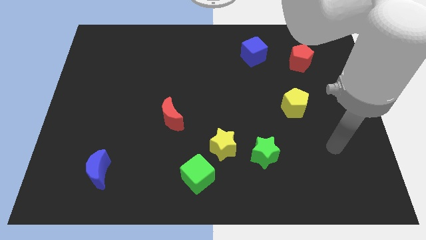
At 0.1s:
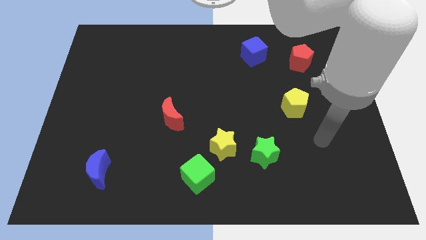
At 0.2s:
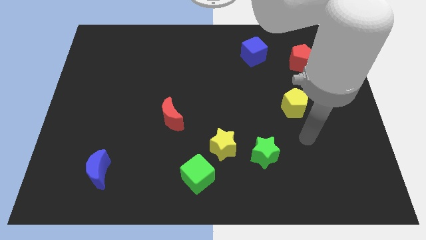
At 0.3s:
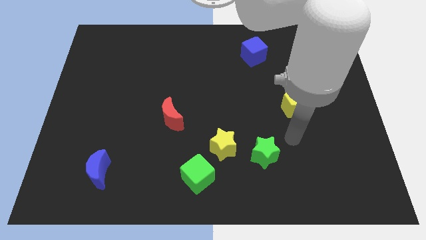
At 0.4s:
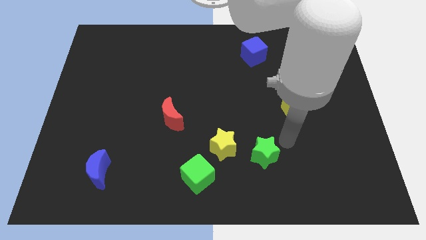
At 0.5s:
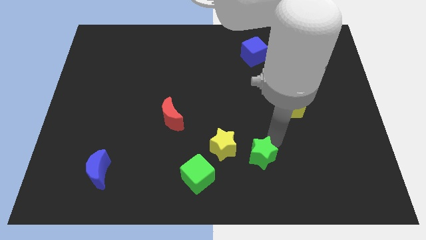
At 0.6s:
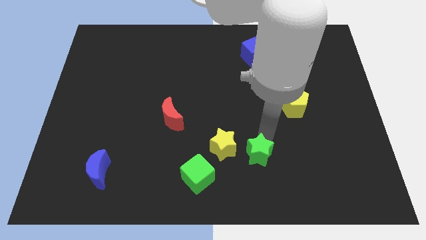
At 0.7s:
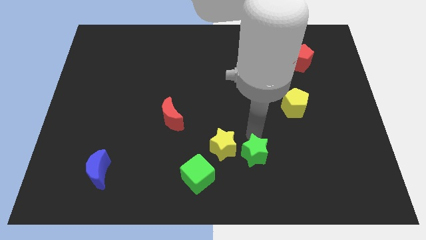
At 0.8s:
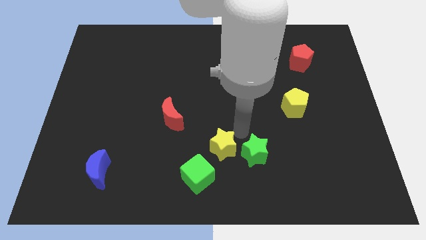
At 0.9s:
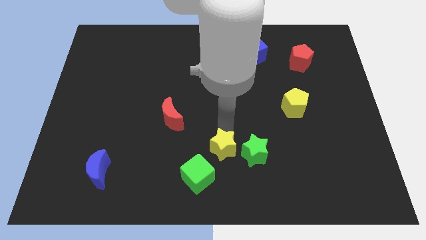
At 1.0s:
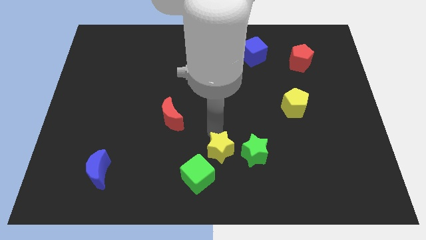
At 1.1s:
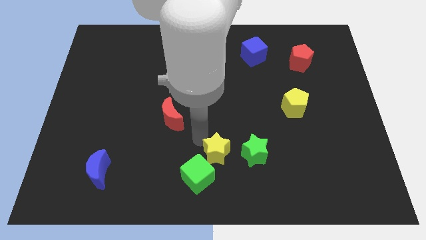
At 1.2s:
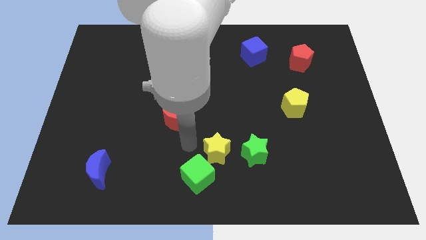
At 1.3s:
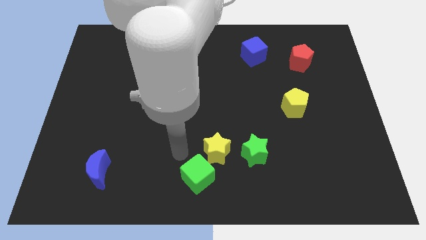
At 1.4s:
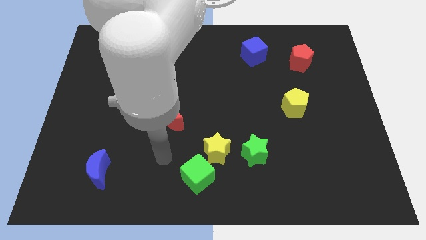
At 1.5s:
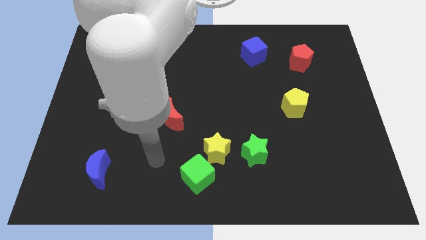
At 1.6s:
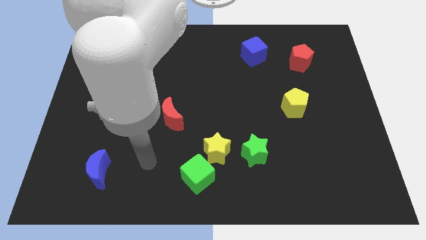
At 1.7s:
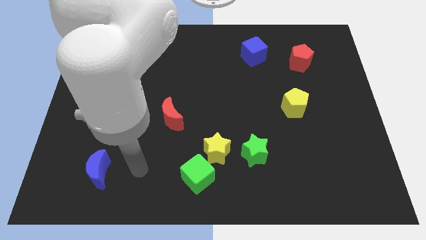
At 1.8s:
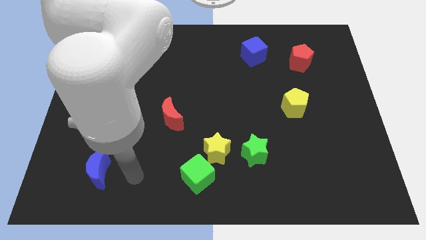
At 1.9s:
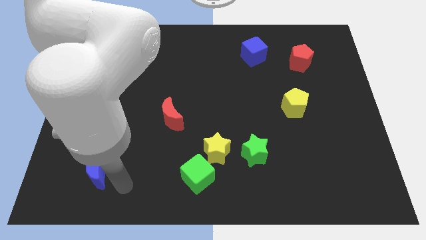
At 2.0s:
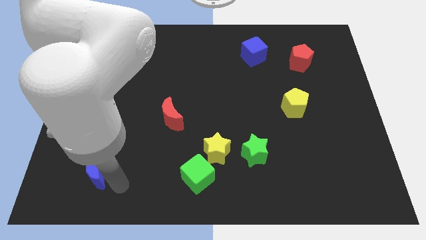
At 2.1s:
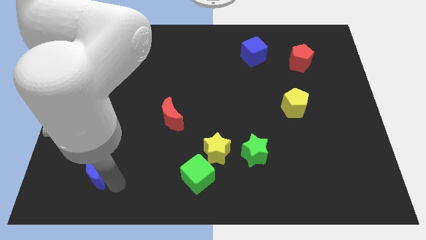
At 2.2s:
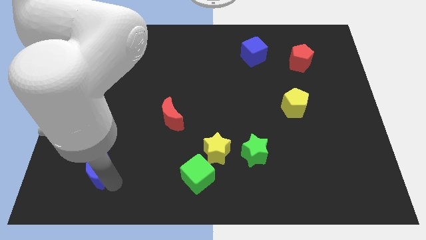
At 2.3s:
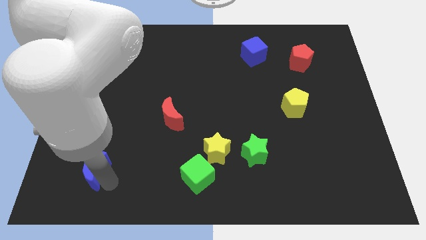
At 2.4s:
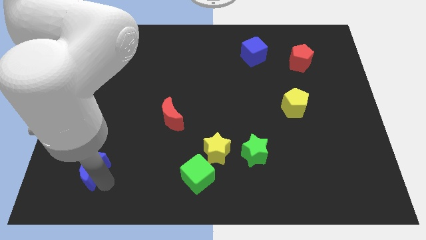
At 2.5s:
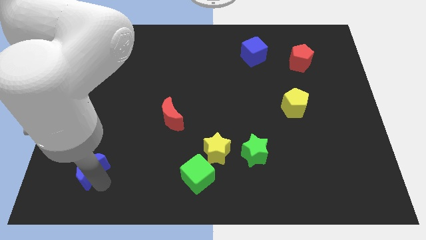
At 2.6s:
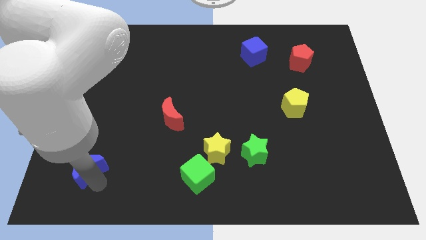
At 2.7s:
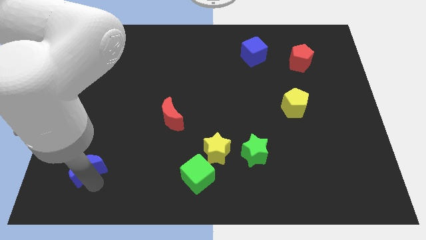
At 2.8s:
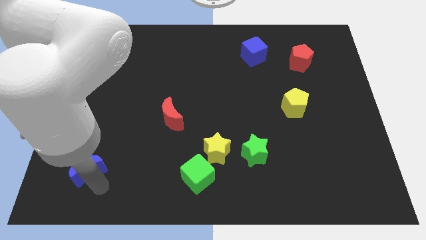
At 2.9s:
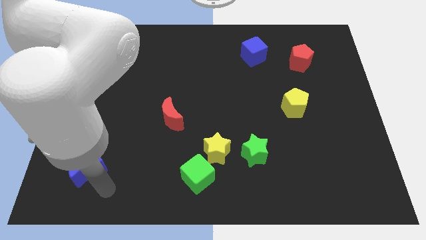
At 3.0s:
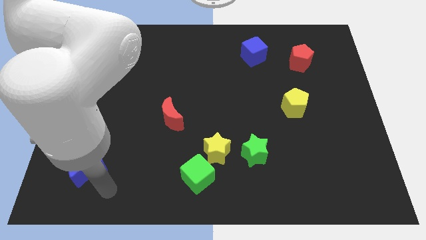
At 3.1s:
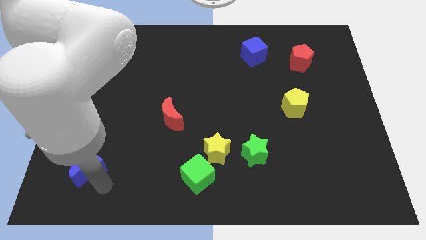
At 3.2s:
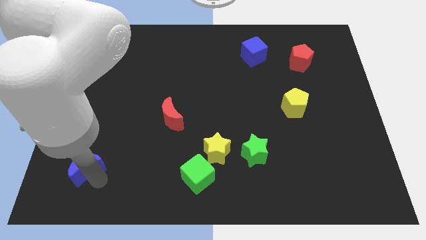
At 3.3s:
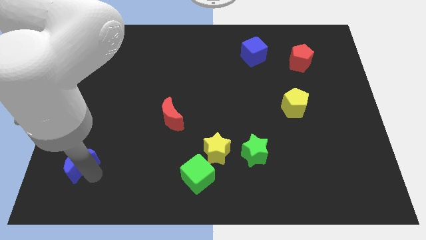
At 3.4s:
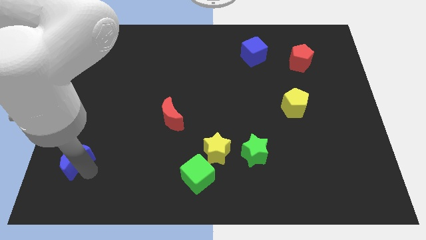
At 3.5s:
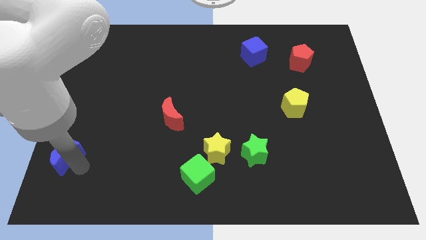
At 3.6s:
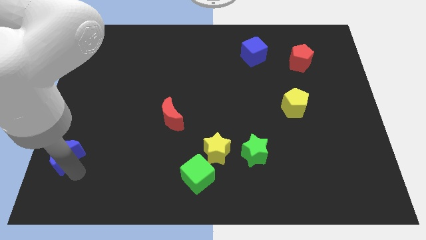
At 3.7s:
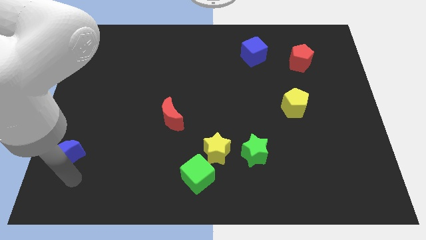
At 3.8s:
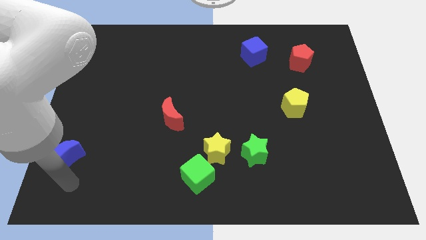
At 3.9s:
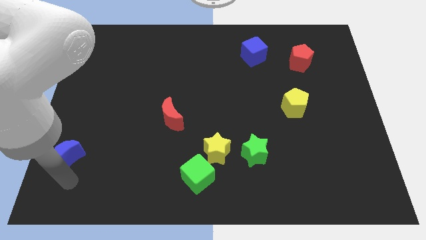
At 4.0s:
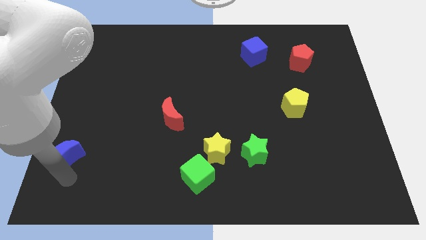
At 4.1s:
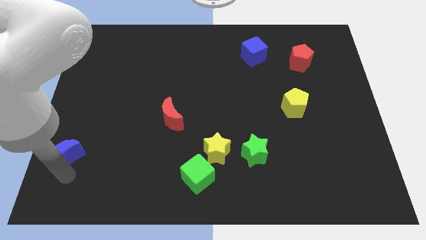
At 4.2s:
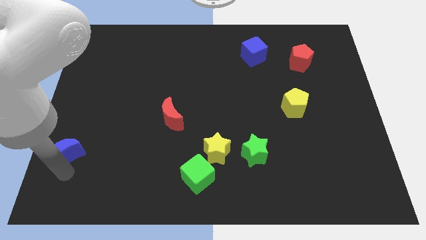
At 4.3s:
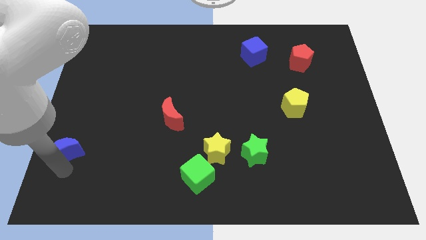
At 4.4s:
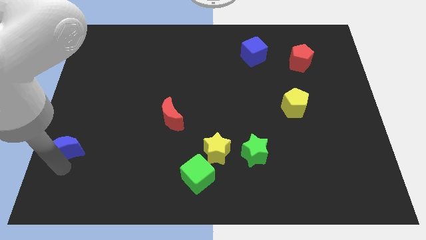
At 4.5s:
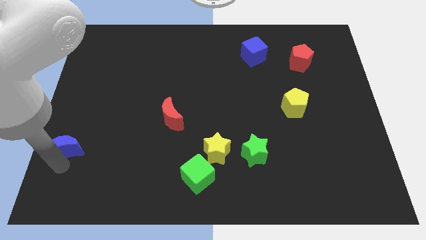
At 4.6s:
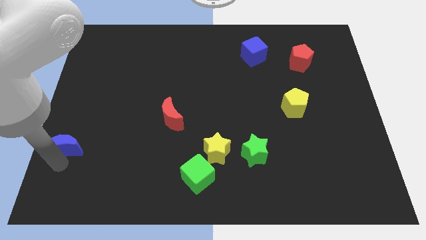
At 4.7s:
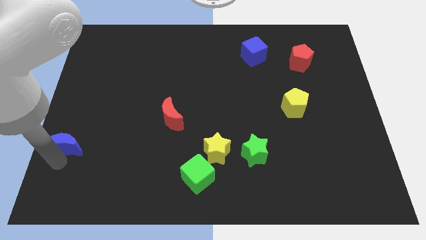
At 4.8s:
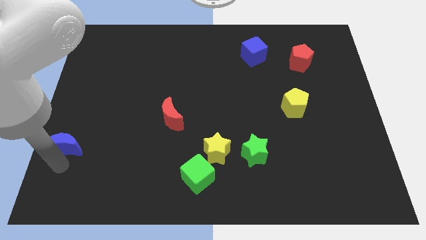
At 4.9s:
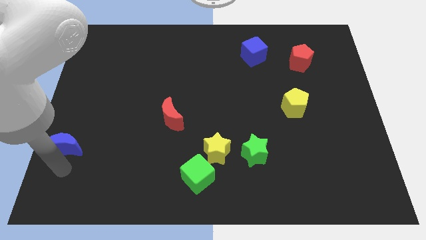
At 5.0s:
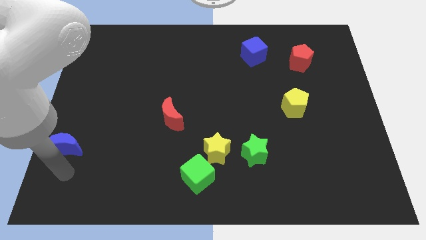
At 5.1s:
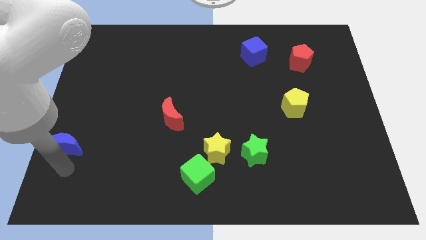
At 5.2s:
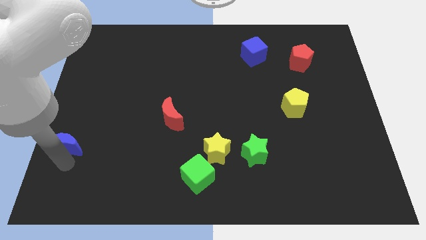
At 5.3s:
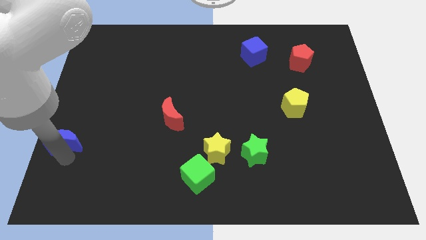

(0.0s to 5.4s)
put the blue moon to the center left

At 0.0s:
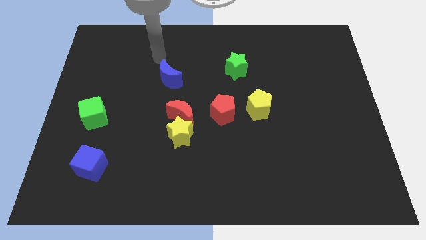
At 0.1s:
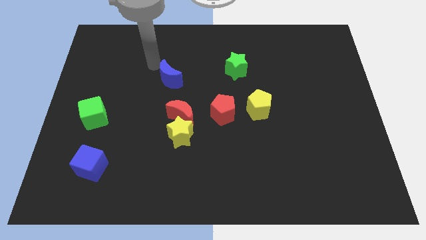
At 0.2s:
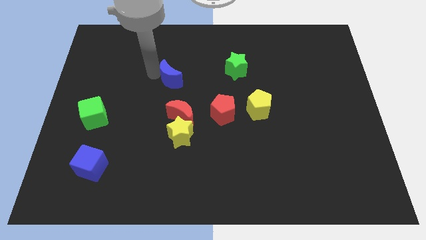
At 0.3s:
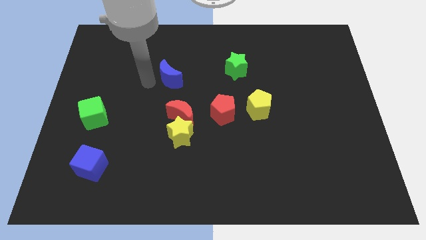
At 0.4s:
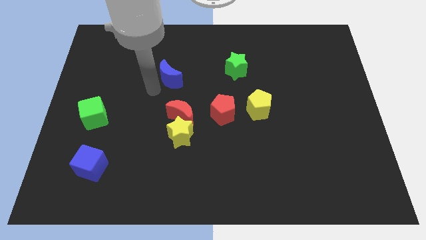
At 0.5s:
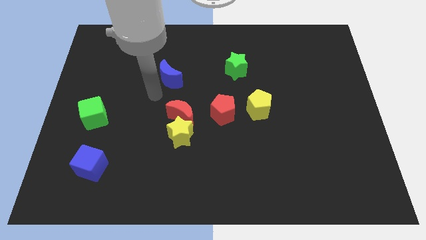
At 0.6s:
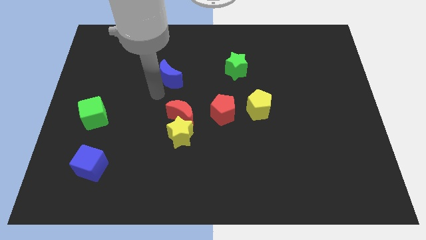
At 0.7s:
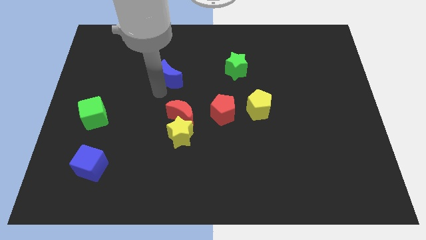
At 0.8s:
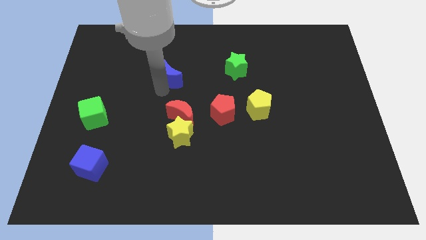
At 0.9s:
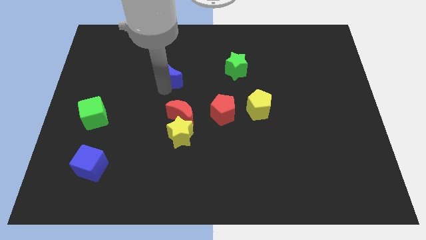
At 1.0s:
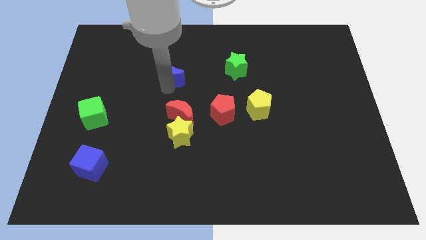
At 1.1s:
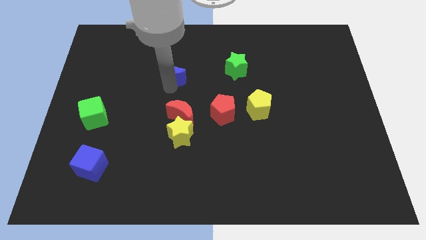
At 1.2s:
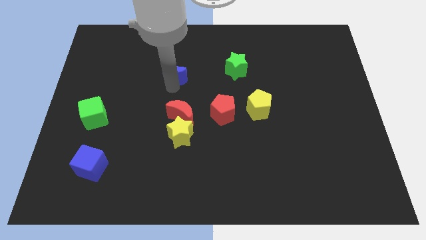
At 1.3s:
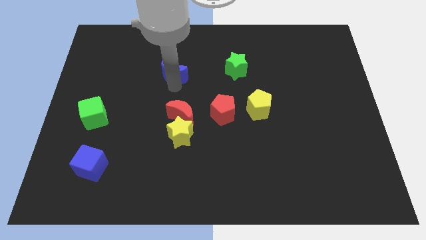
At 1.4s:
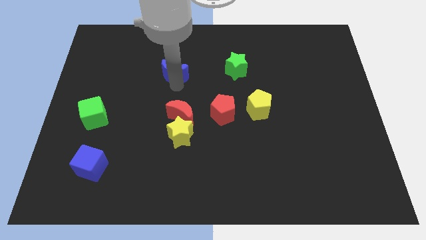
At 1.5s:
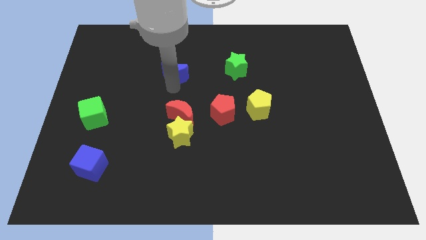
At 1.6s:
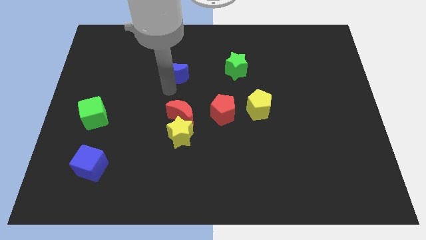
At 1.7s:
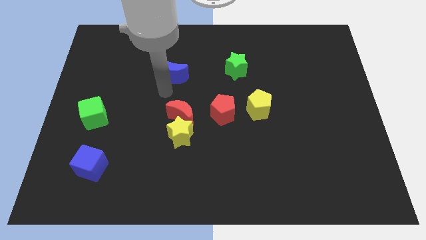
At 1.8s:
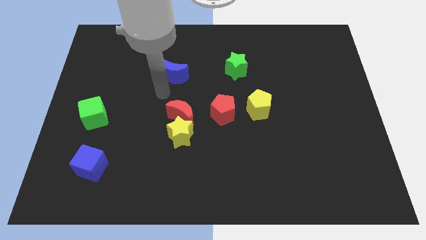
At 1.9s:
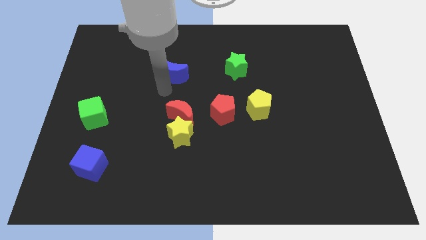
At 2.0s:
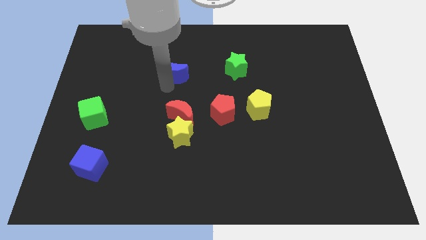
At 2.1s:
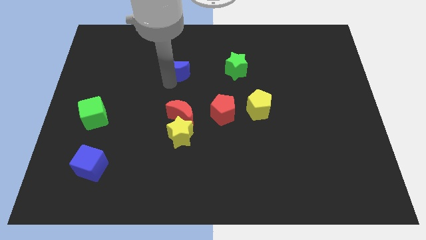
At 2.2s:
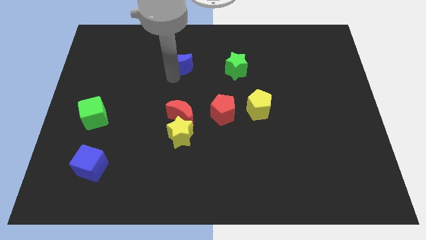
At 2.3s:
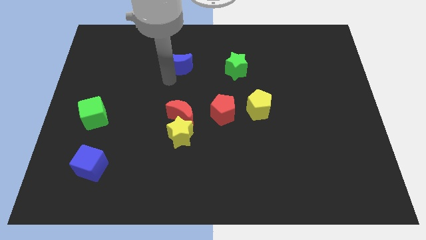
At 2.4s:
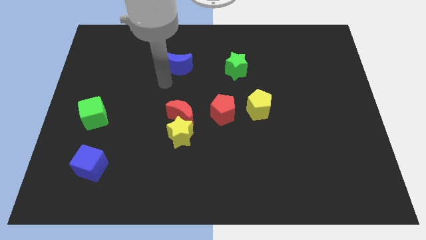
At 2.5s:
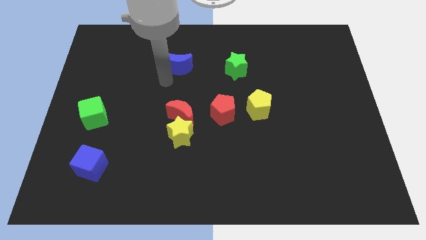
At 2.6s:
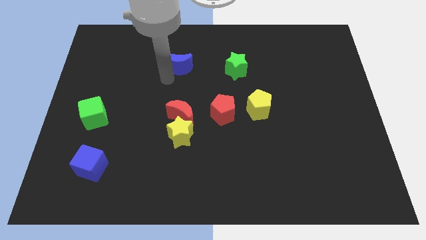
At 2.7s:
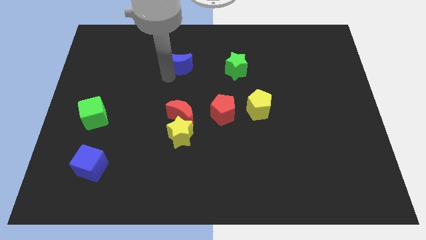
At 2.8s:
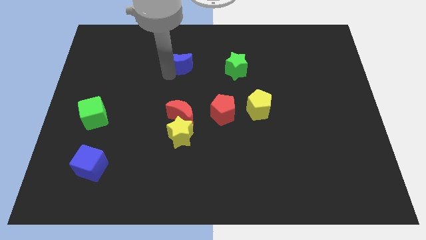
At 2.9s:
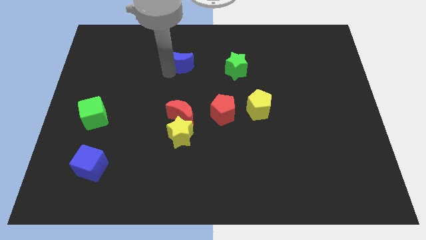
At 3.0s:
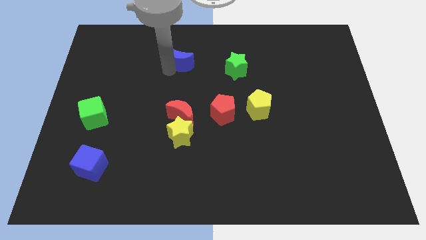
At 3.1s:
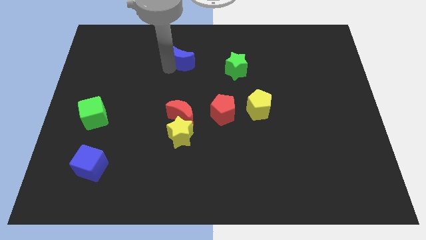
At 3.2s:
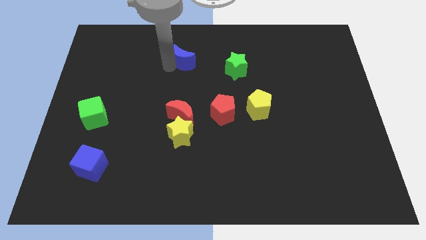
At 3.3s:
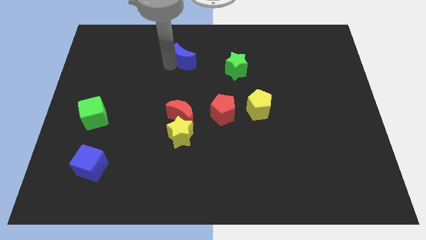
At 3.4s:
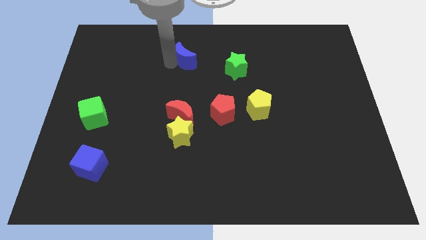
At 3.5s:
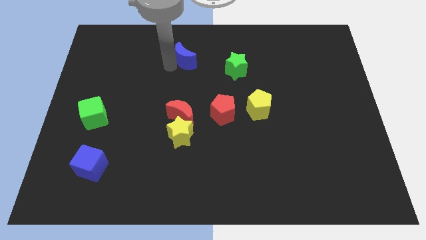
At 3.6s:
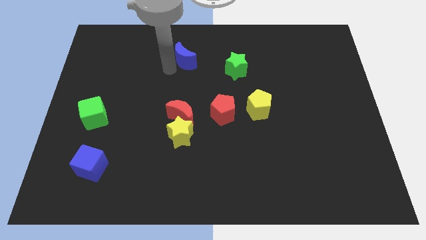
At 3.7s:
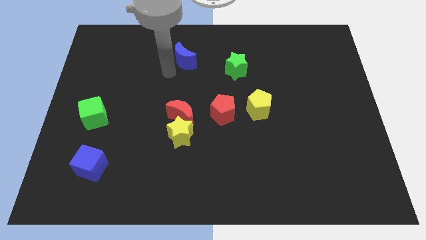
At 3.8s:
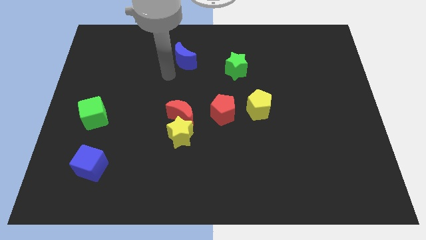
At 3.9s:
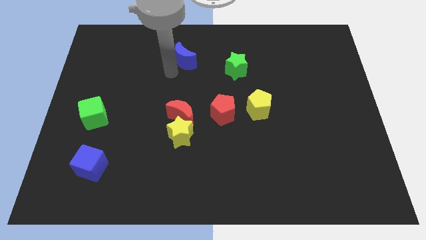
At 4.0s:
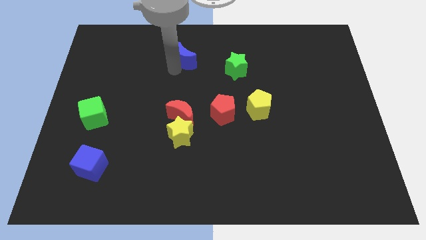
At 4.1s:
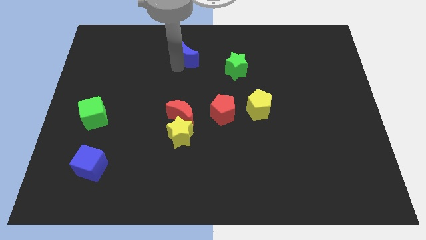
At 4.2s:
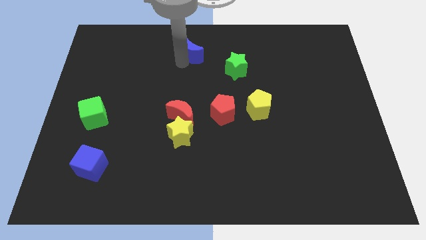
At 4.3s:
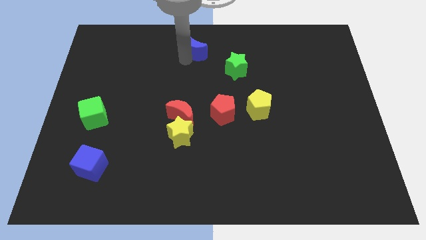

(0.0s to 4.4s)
push the blue moon to the top
